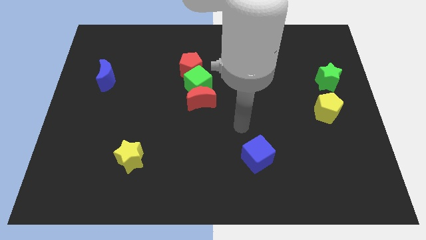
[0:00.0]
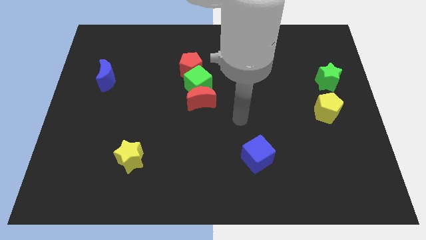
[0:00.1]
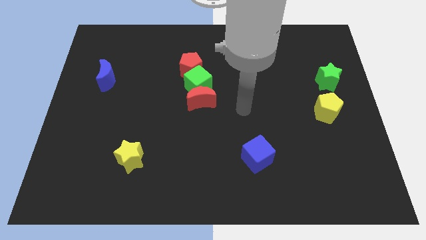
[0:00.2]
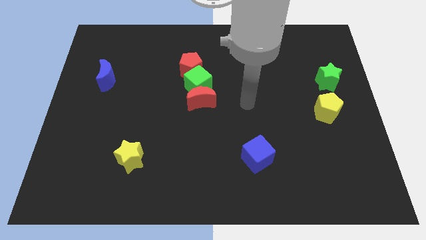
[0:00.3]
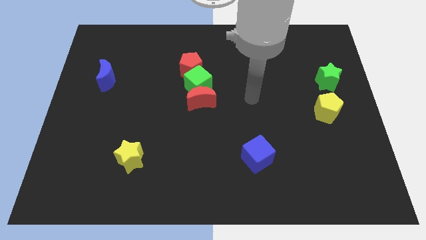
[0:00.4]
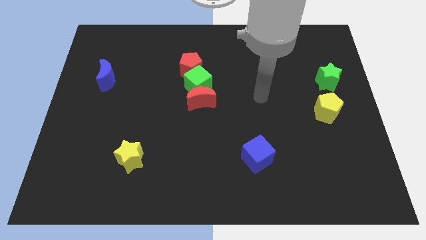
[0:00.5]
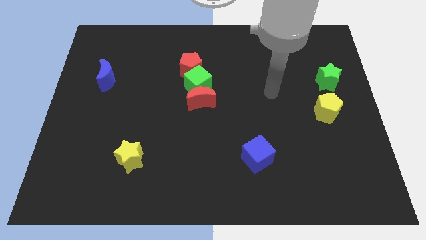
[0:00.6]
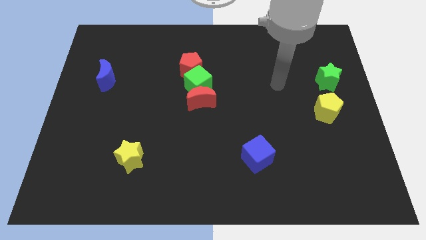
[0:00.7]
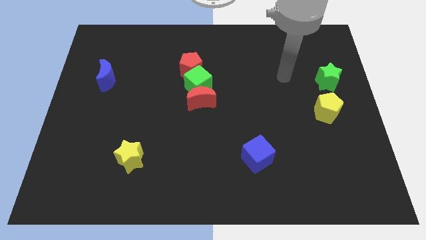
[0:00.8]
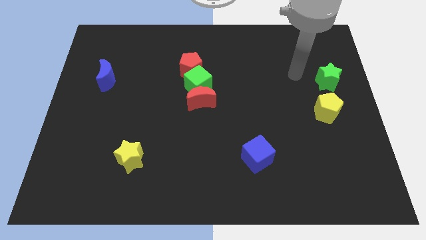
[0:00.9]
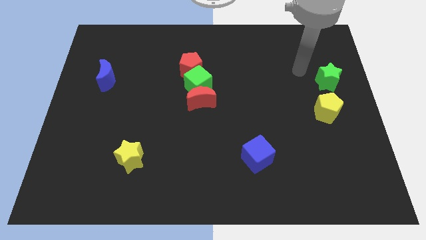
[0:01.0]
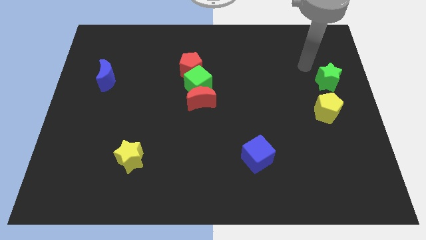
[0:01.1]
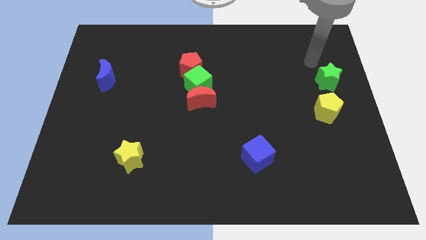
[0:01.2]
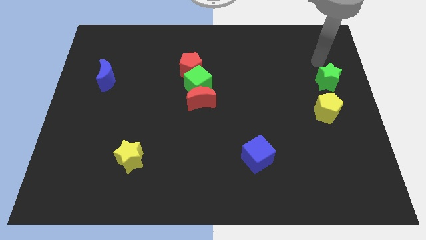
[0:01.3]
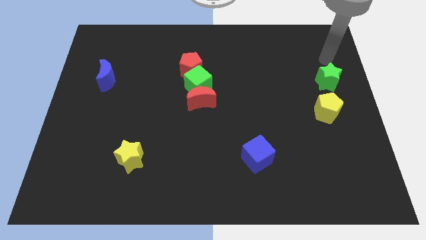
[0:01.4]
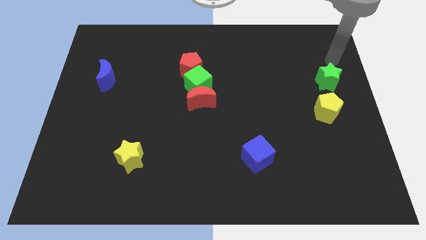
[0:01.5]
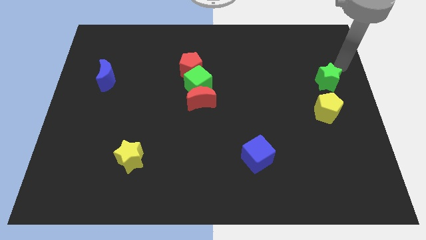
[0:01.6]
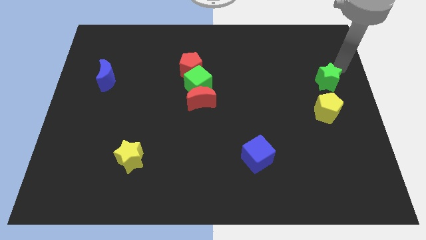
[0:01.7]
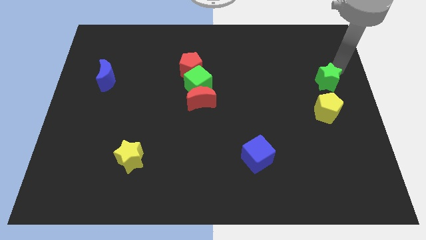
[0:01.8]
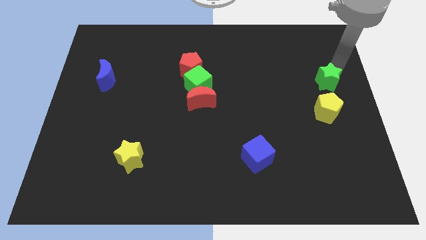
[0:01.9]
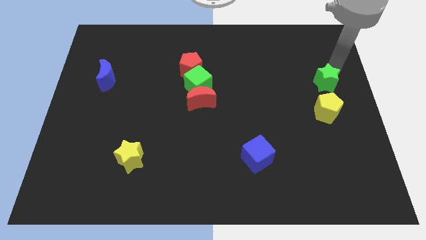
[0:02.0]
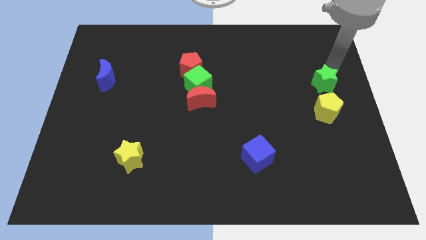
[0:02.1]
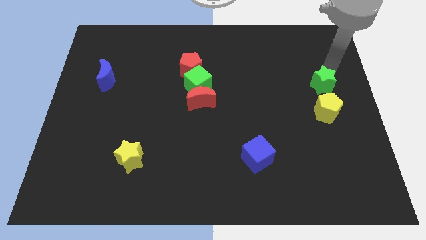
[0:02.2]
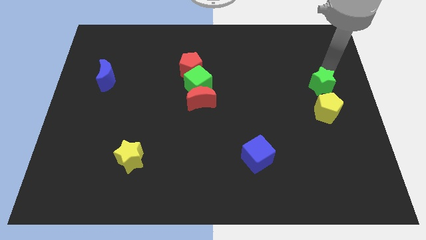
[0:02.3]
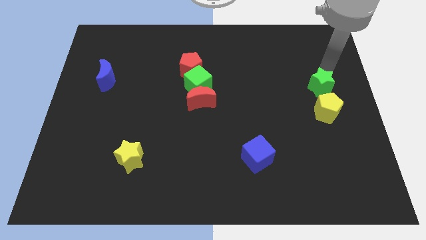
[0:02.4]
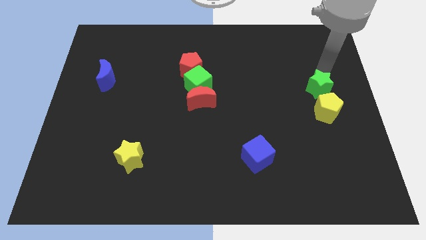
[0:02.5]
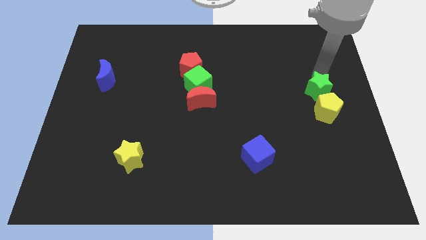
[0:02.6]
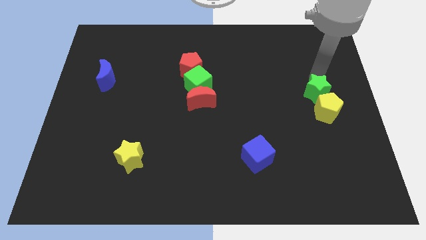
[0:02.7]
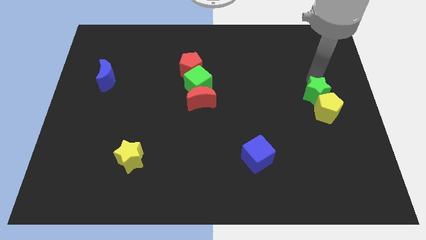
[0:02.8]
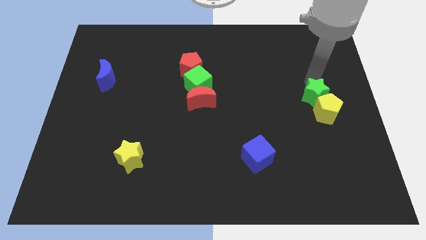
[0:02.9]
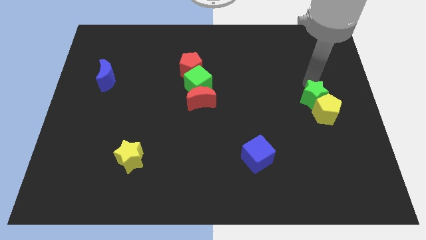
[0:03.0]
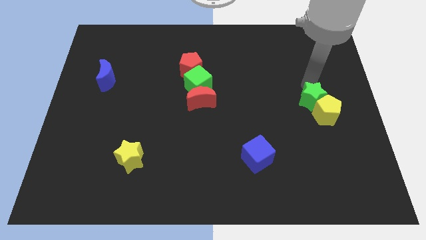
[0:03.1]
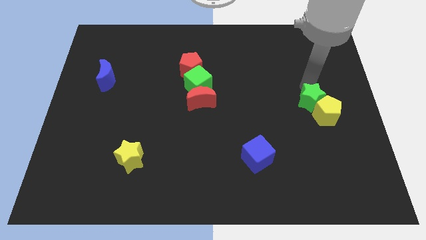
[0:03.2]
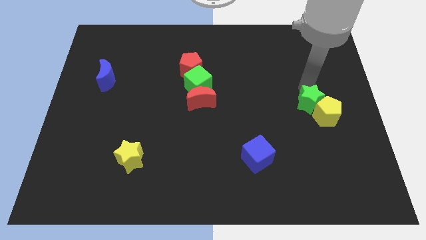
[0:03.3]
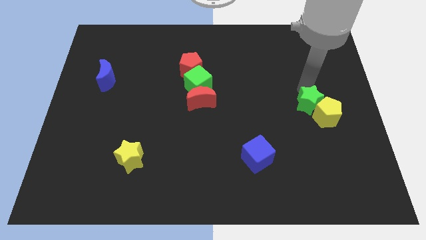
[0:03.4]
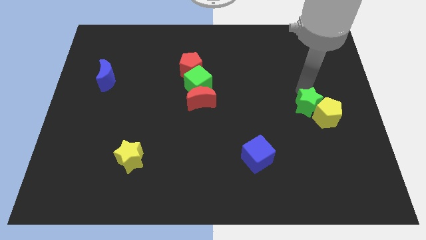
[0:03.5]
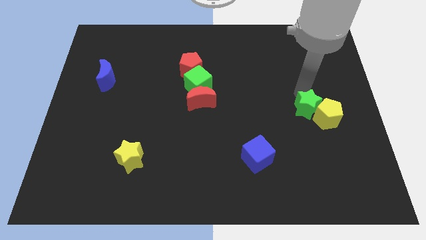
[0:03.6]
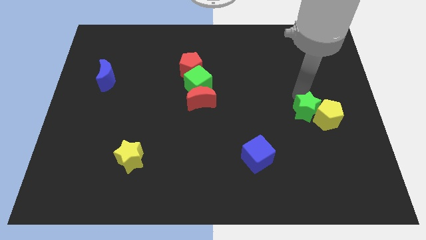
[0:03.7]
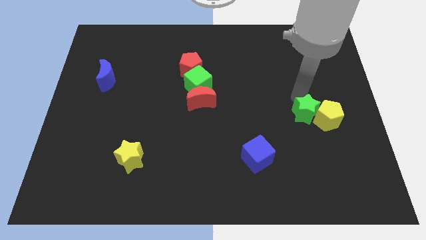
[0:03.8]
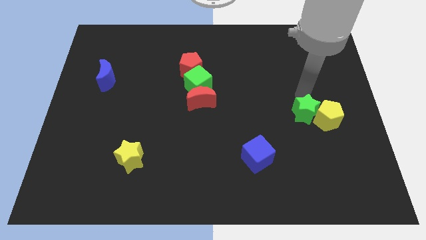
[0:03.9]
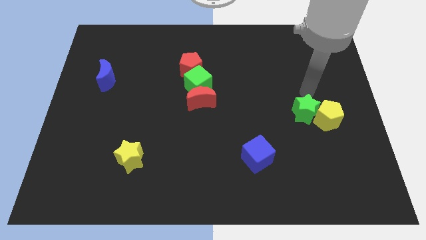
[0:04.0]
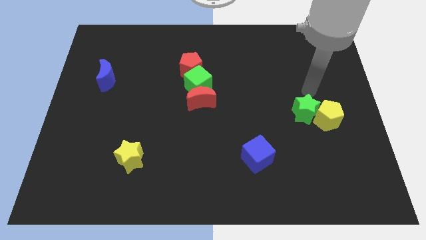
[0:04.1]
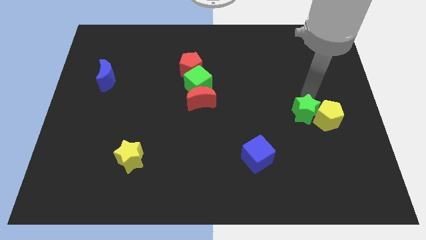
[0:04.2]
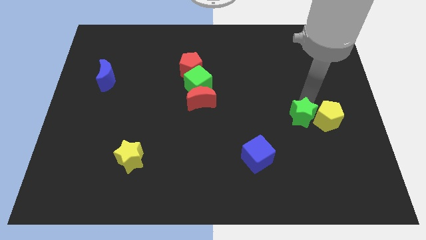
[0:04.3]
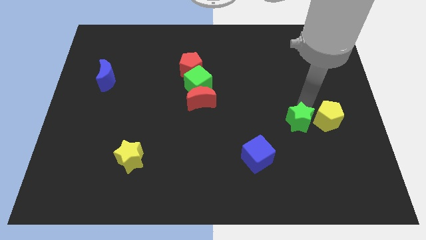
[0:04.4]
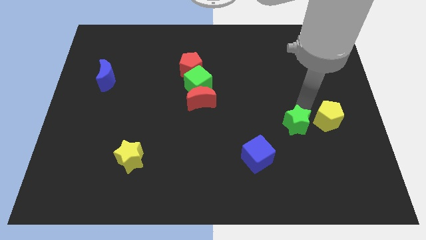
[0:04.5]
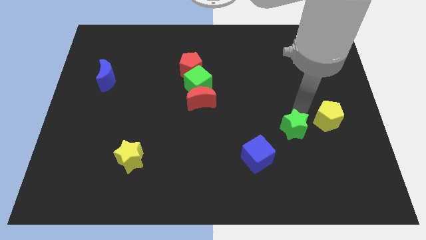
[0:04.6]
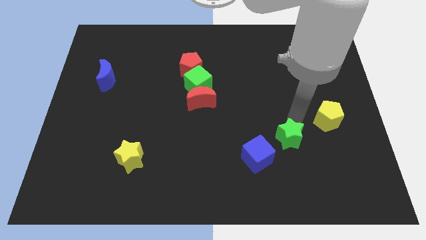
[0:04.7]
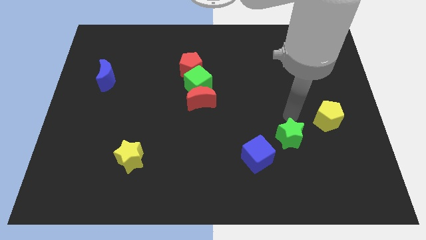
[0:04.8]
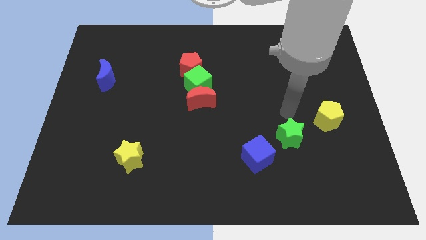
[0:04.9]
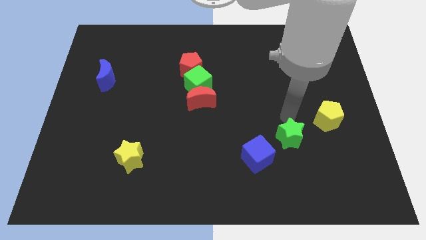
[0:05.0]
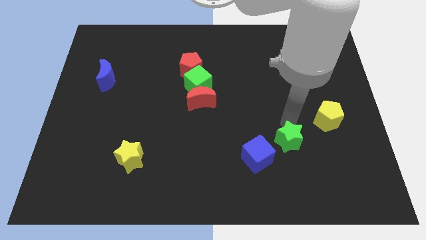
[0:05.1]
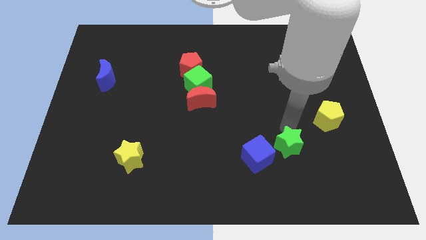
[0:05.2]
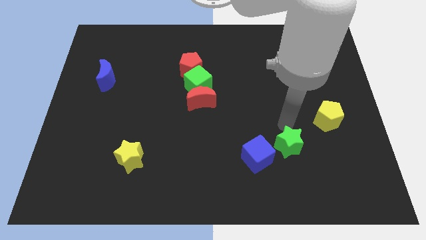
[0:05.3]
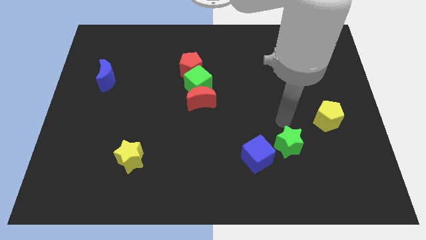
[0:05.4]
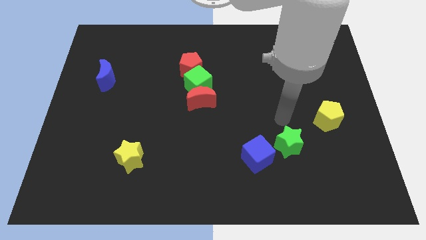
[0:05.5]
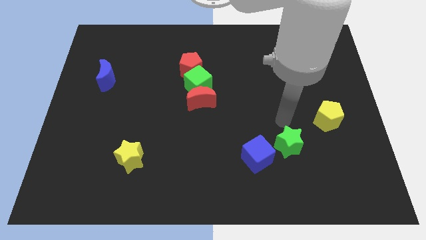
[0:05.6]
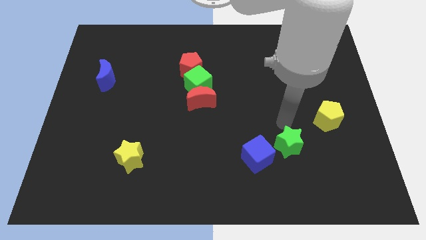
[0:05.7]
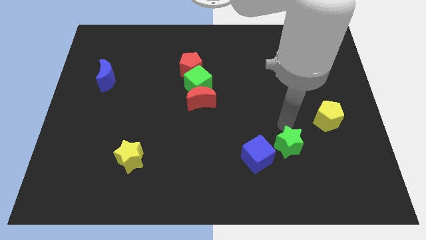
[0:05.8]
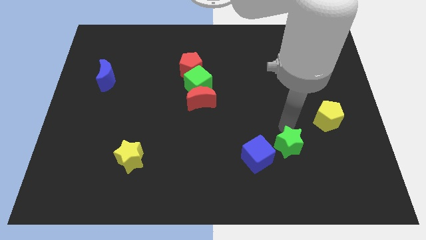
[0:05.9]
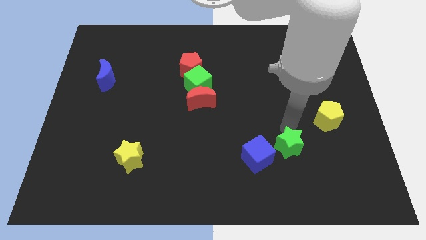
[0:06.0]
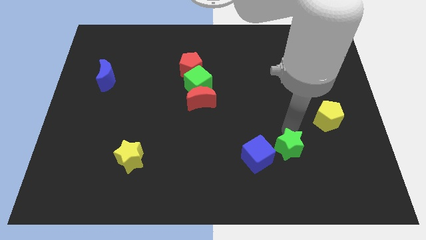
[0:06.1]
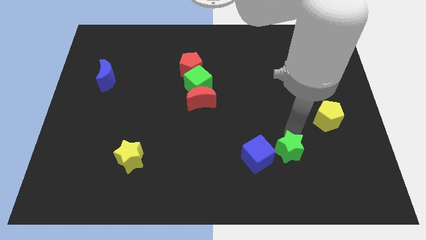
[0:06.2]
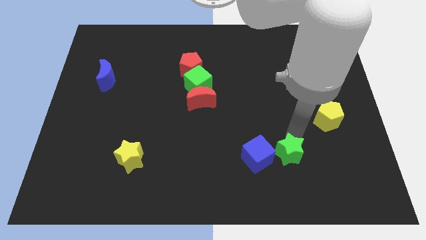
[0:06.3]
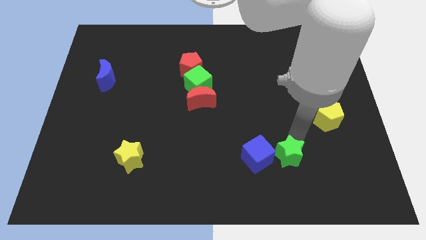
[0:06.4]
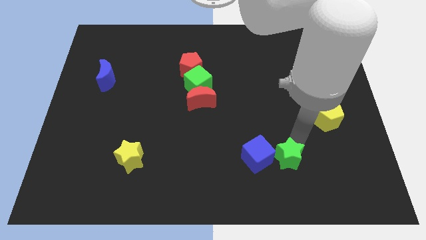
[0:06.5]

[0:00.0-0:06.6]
put the green star to the bottom right side of the blue cube

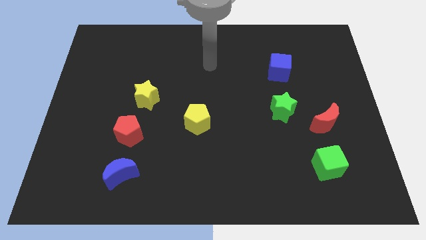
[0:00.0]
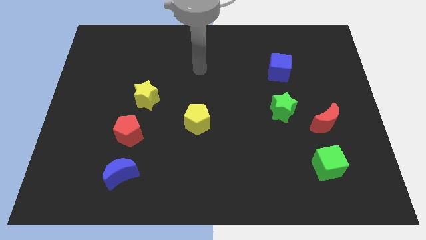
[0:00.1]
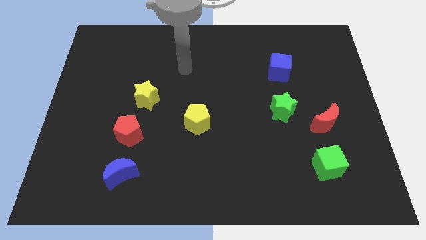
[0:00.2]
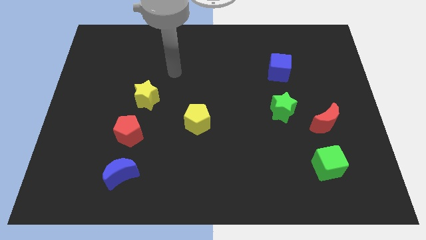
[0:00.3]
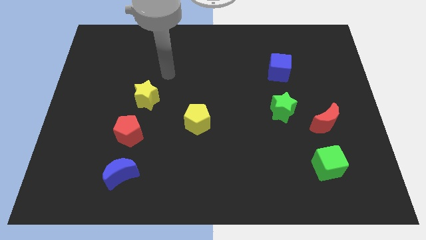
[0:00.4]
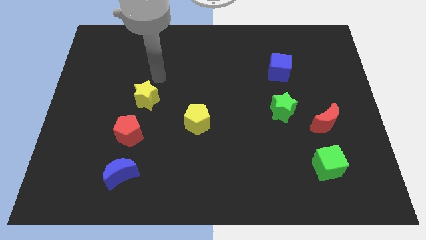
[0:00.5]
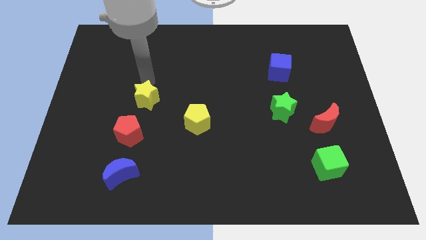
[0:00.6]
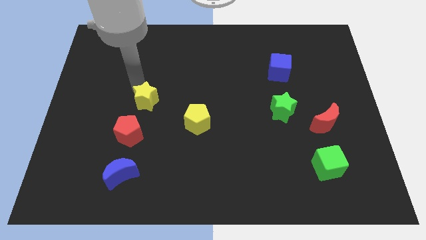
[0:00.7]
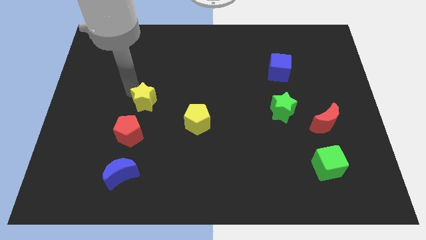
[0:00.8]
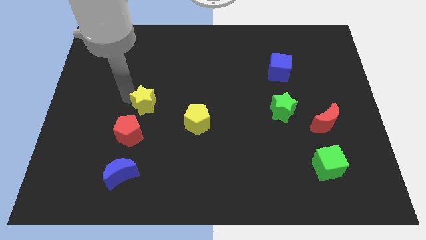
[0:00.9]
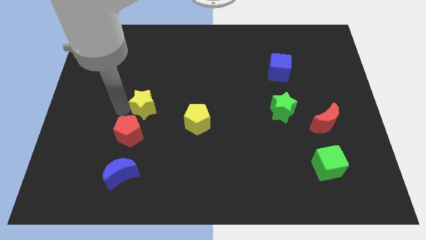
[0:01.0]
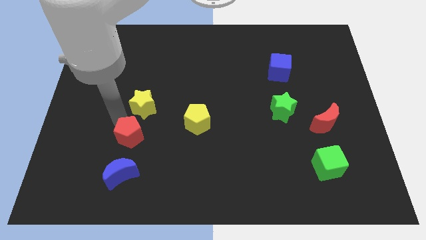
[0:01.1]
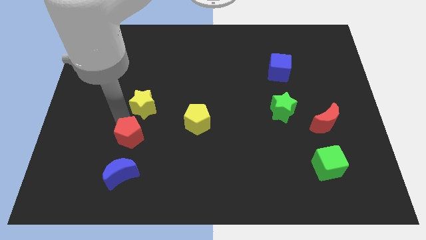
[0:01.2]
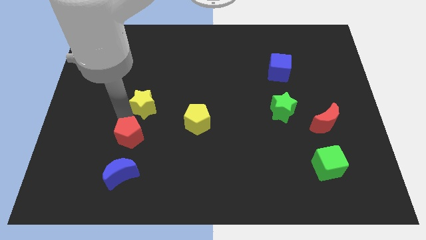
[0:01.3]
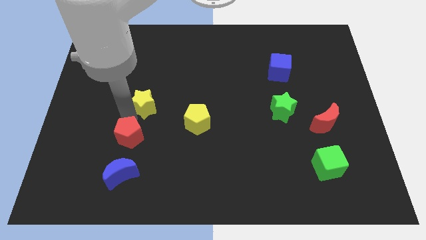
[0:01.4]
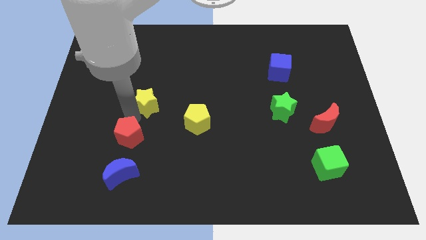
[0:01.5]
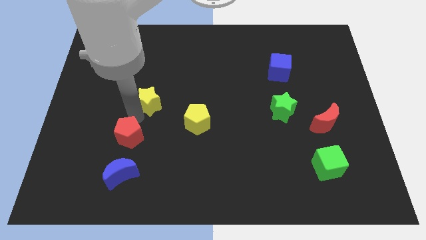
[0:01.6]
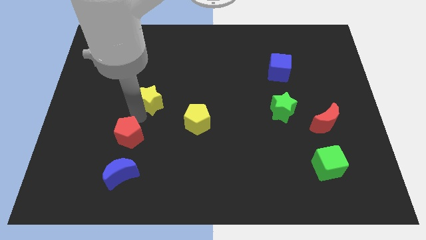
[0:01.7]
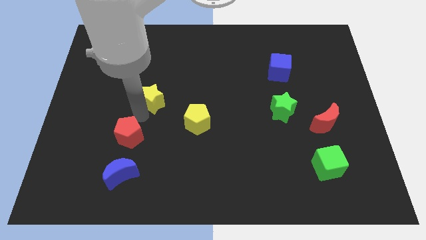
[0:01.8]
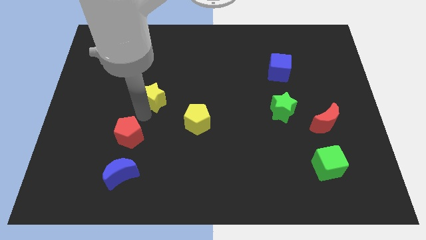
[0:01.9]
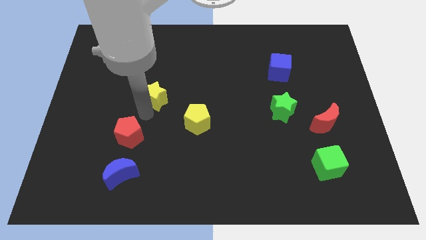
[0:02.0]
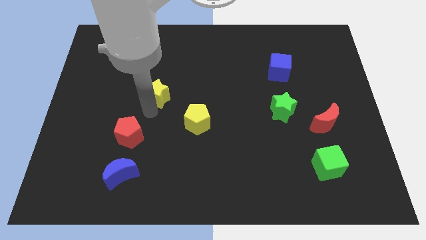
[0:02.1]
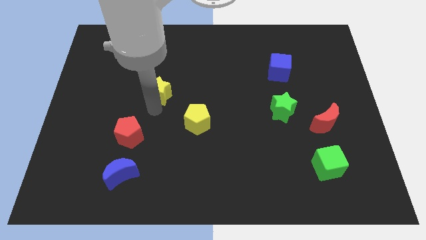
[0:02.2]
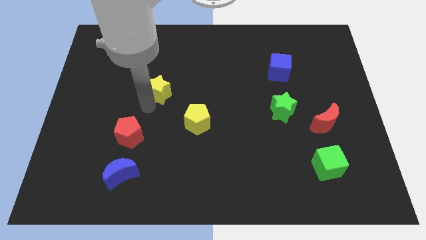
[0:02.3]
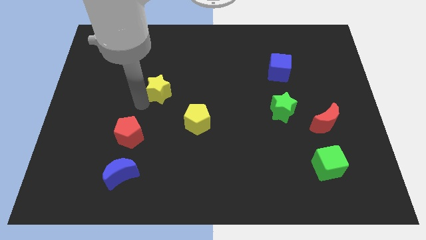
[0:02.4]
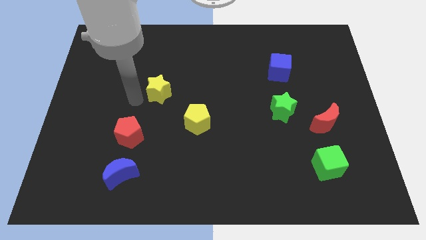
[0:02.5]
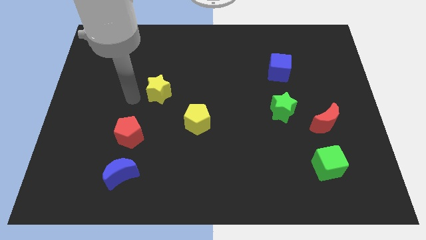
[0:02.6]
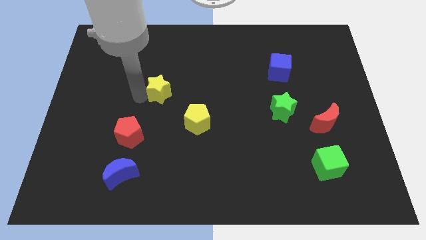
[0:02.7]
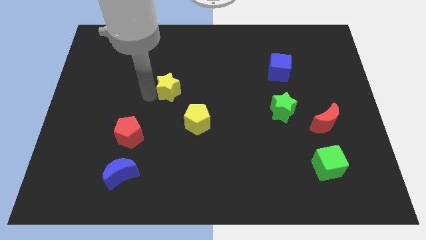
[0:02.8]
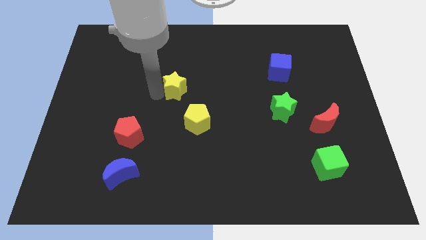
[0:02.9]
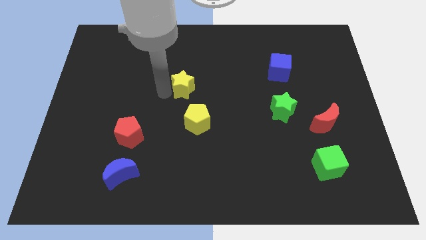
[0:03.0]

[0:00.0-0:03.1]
put the yellow star to the top side of the yellow pentagon
